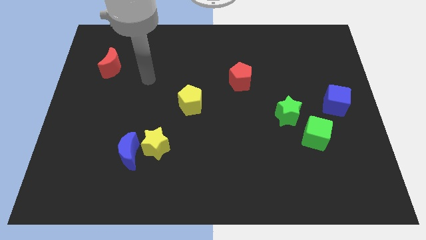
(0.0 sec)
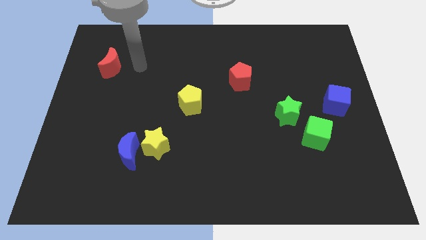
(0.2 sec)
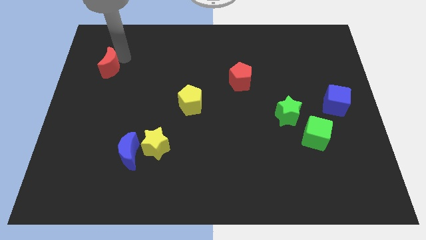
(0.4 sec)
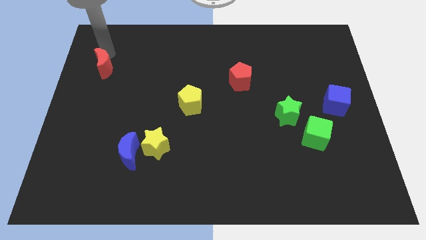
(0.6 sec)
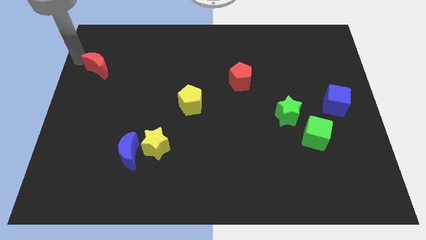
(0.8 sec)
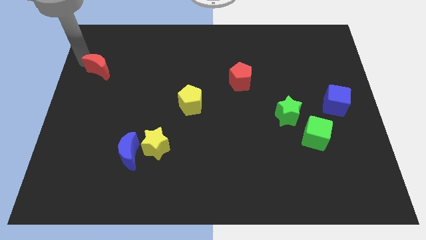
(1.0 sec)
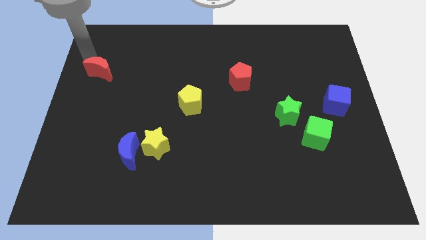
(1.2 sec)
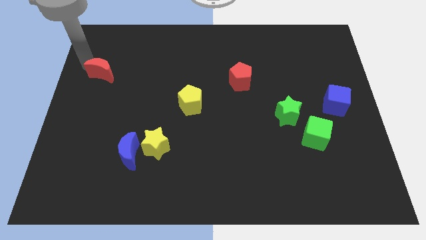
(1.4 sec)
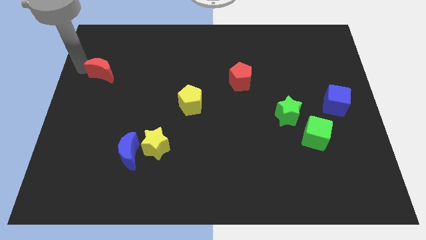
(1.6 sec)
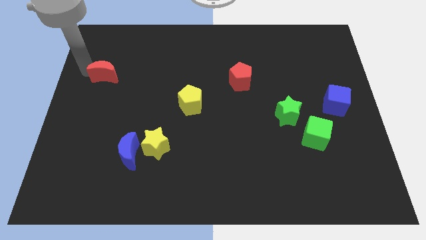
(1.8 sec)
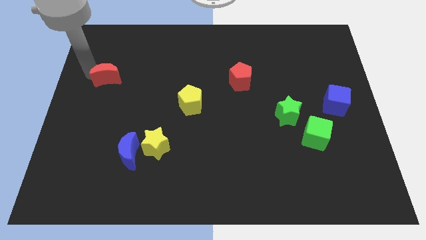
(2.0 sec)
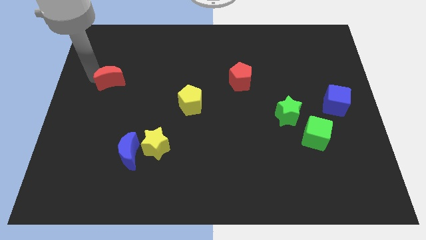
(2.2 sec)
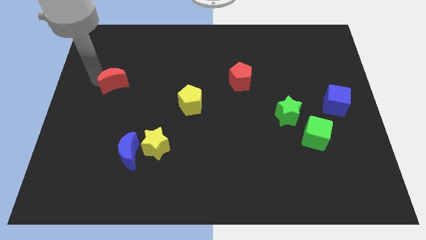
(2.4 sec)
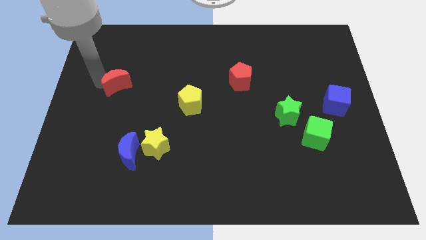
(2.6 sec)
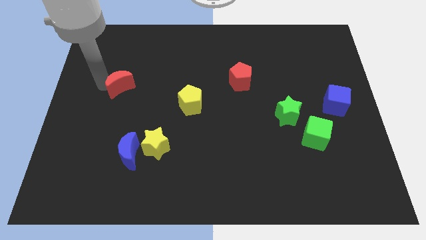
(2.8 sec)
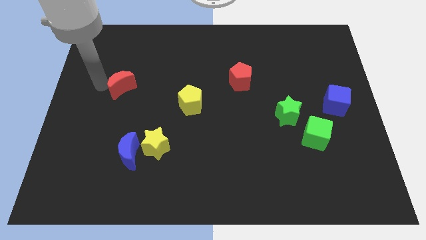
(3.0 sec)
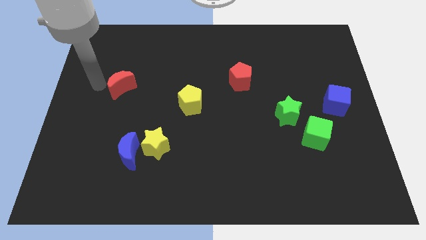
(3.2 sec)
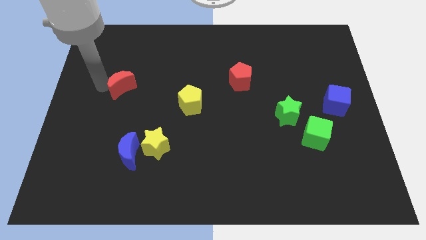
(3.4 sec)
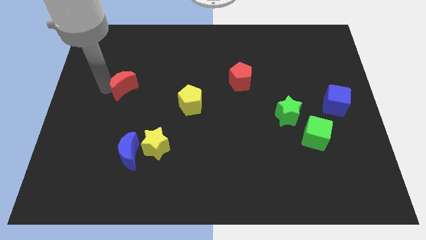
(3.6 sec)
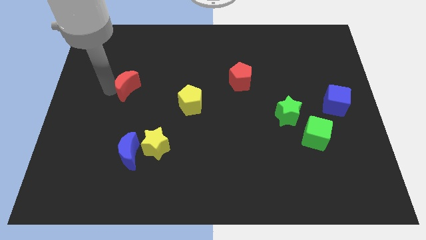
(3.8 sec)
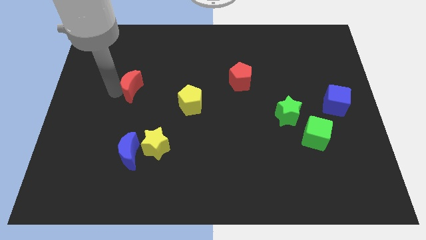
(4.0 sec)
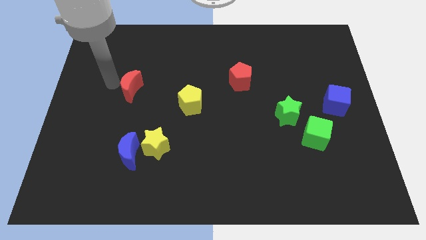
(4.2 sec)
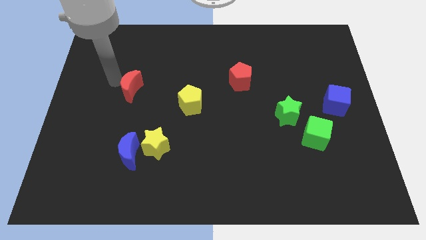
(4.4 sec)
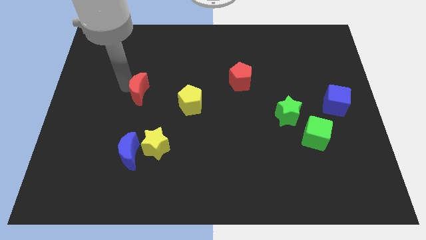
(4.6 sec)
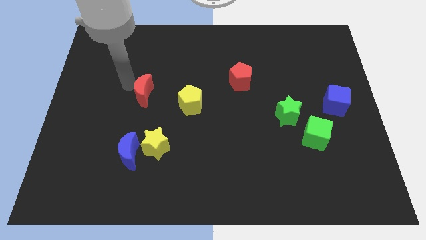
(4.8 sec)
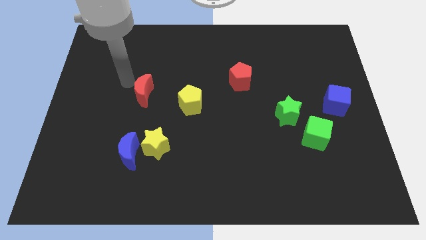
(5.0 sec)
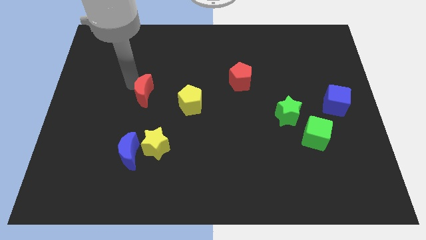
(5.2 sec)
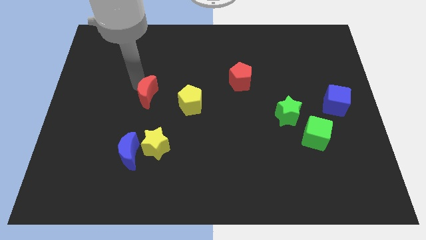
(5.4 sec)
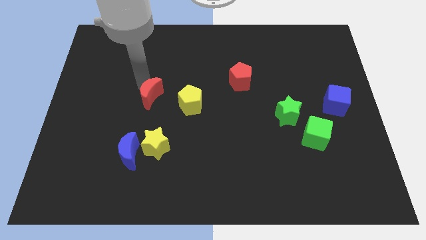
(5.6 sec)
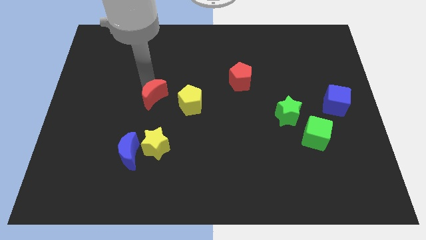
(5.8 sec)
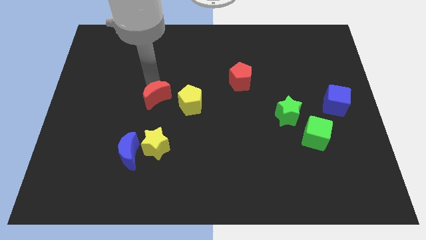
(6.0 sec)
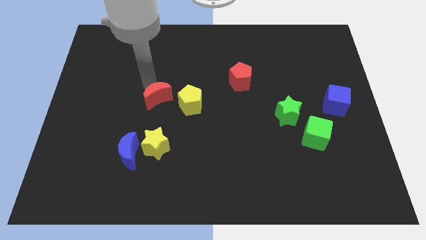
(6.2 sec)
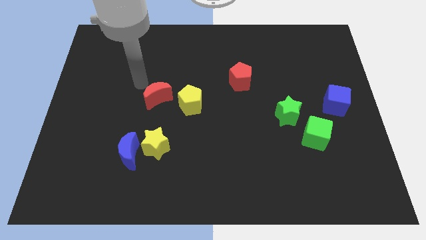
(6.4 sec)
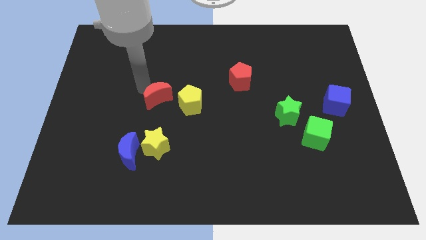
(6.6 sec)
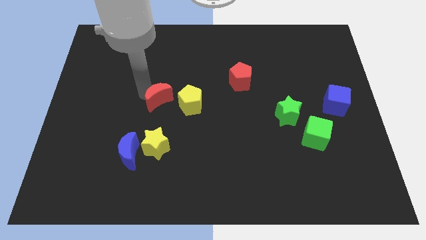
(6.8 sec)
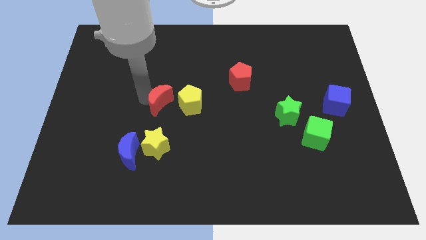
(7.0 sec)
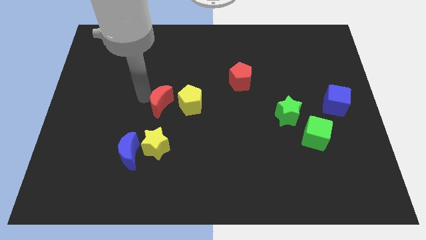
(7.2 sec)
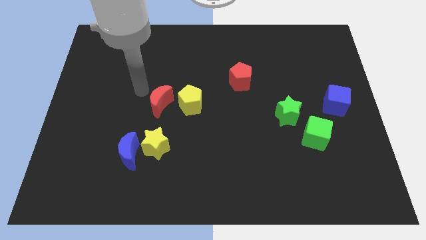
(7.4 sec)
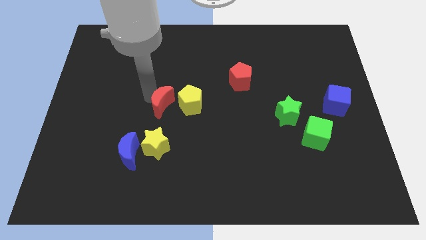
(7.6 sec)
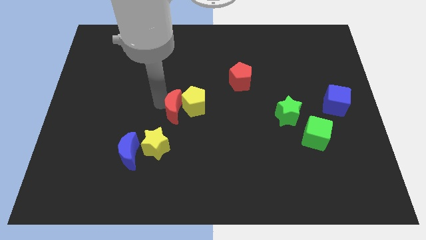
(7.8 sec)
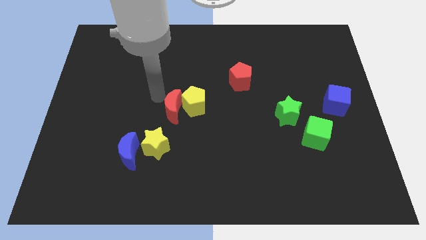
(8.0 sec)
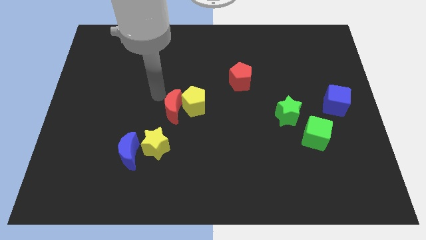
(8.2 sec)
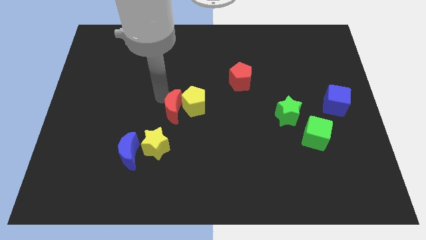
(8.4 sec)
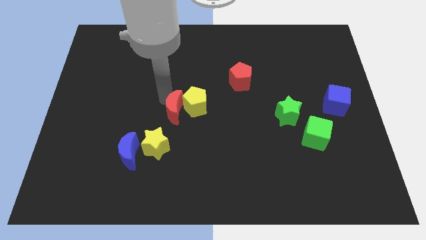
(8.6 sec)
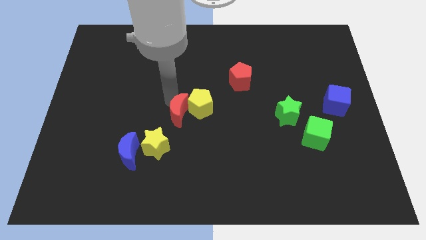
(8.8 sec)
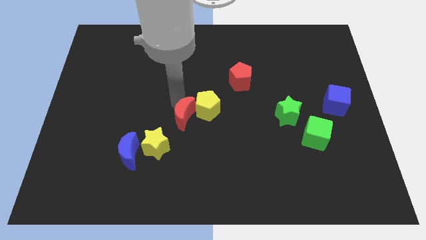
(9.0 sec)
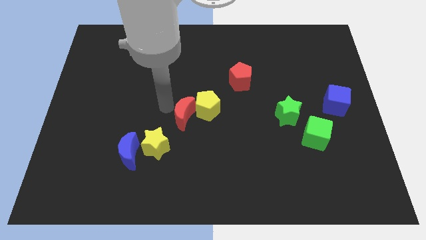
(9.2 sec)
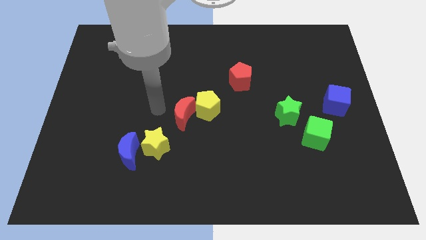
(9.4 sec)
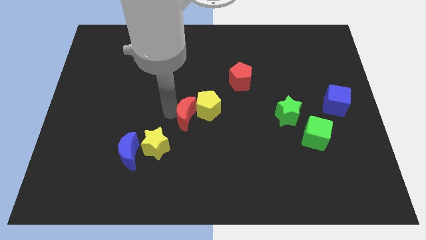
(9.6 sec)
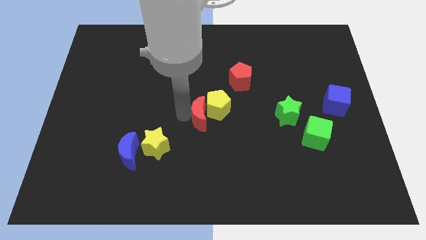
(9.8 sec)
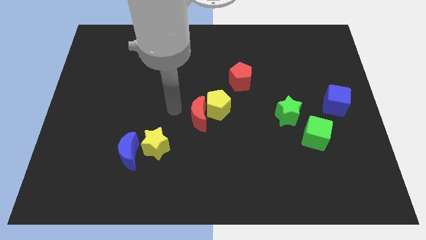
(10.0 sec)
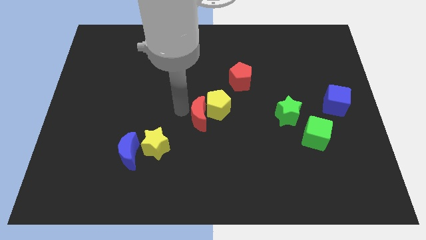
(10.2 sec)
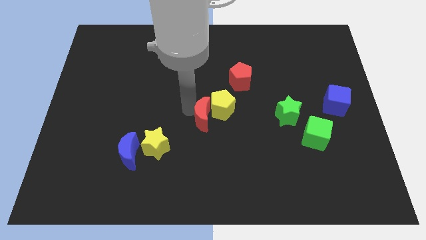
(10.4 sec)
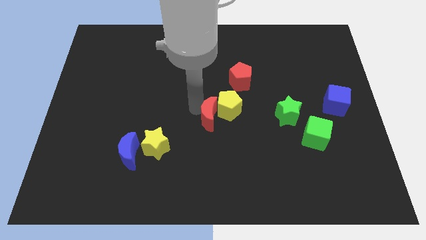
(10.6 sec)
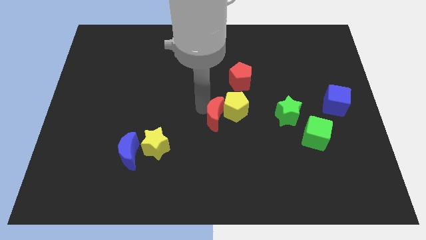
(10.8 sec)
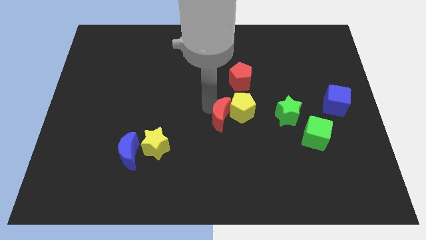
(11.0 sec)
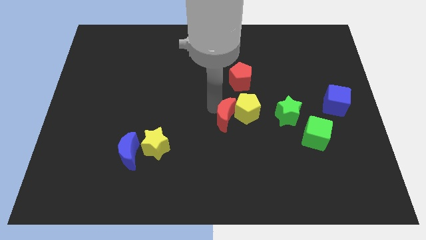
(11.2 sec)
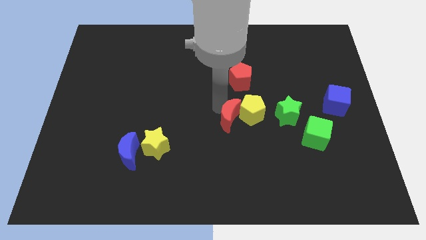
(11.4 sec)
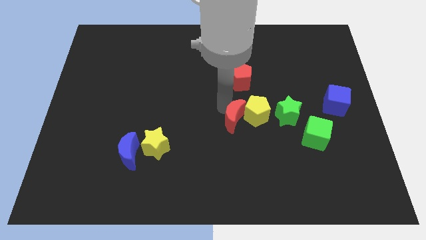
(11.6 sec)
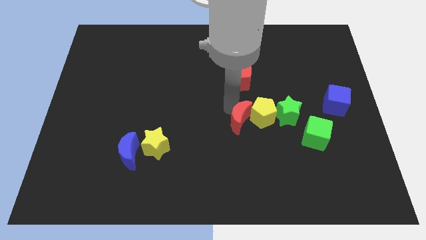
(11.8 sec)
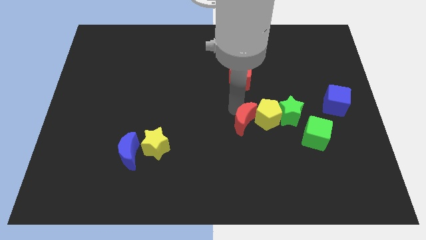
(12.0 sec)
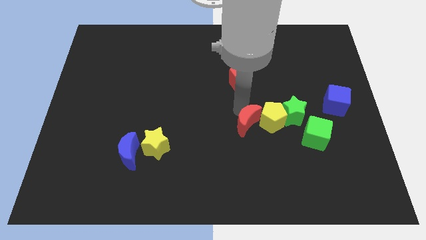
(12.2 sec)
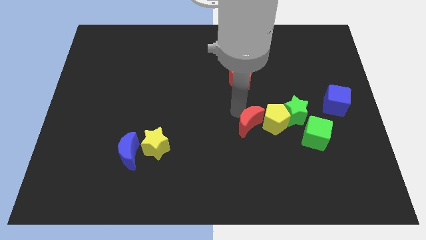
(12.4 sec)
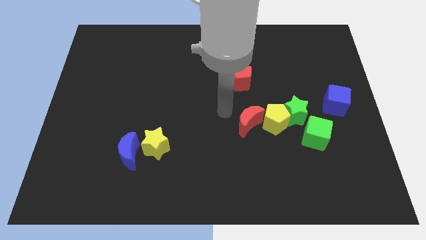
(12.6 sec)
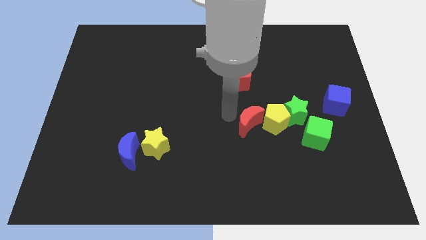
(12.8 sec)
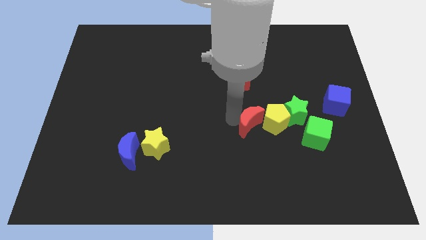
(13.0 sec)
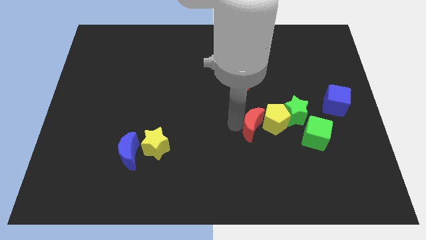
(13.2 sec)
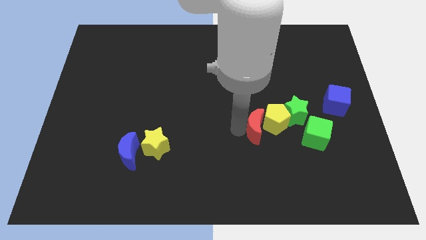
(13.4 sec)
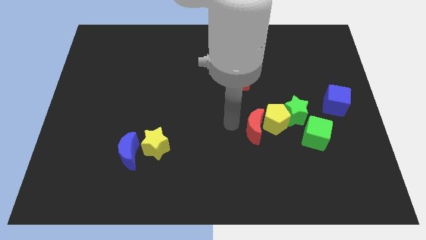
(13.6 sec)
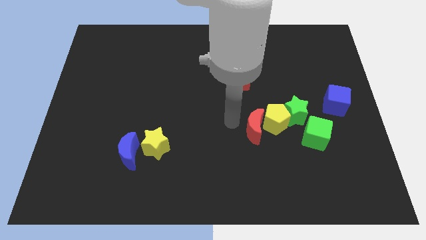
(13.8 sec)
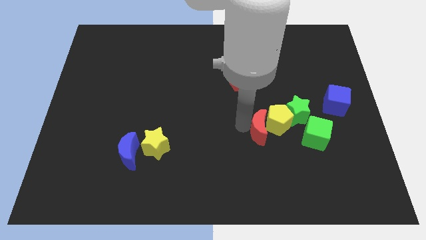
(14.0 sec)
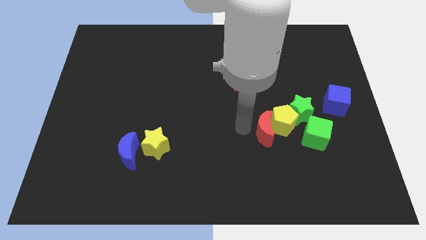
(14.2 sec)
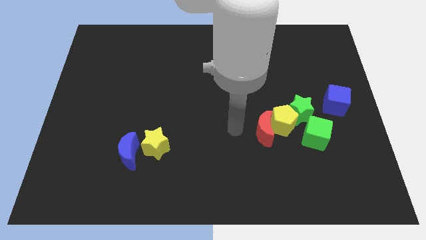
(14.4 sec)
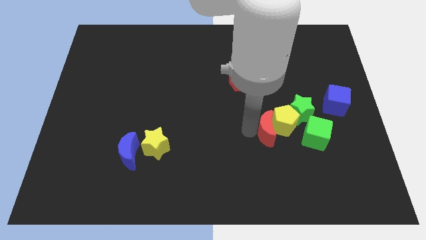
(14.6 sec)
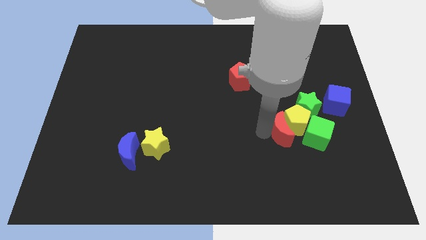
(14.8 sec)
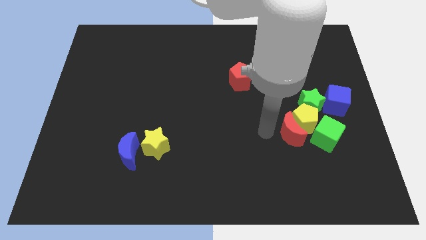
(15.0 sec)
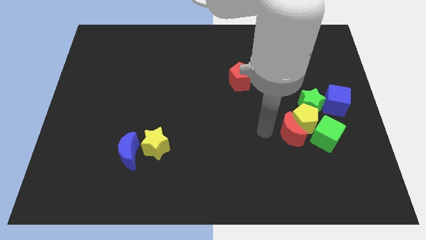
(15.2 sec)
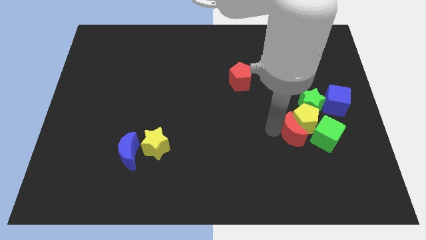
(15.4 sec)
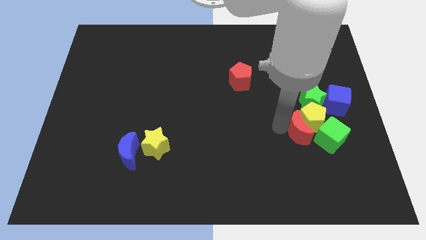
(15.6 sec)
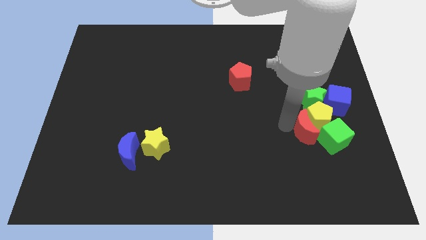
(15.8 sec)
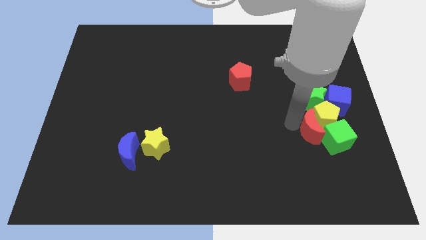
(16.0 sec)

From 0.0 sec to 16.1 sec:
put the red moon to the green cube
